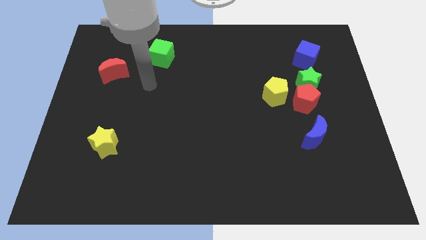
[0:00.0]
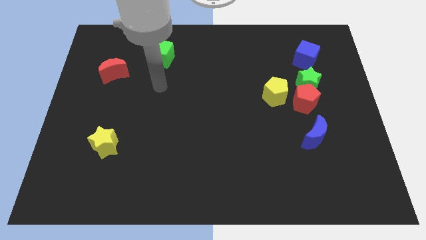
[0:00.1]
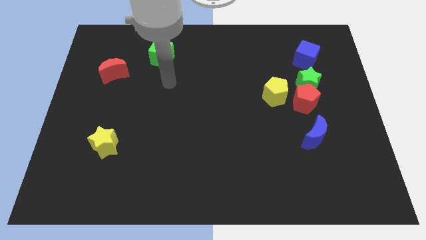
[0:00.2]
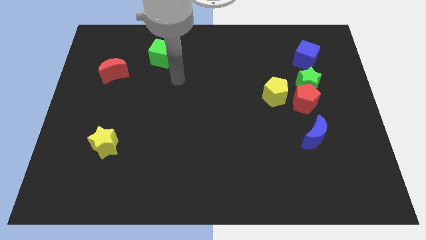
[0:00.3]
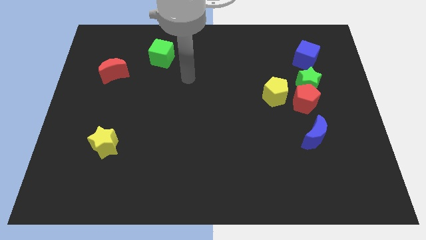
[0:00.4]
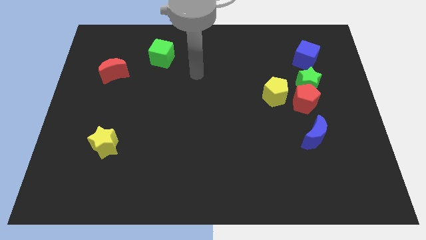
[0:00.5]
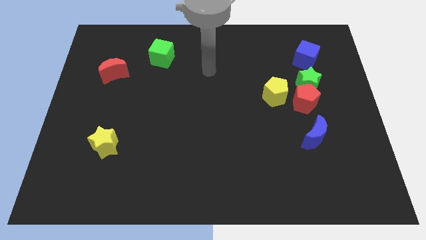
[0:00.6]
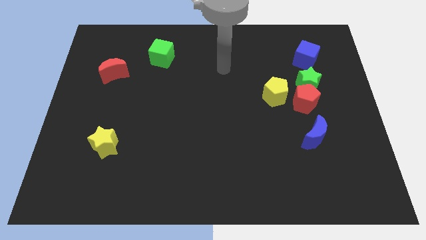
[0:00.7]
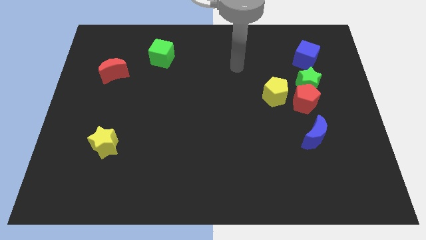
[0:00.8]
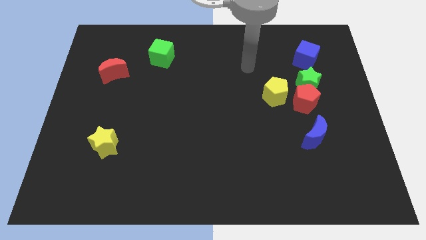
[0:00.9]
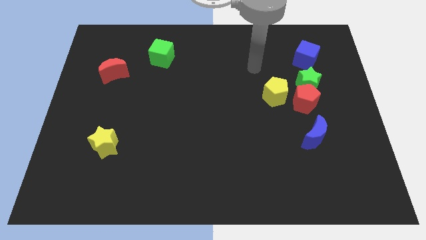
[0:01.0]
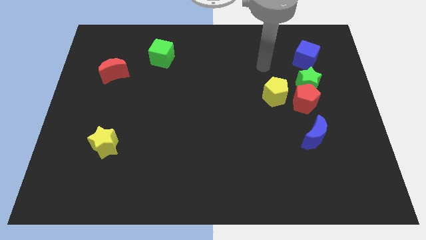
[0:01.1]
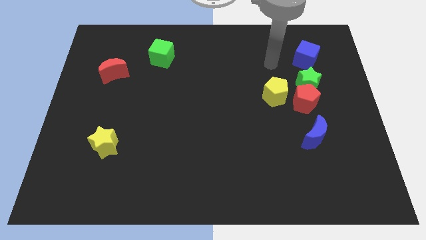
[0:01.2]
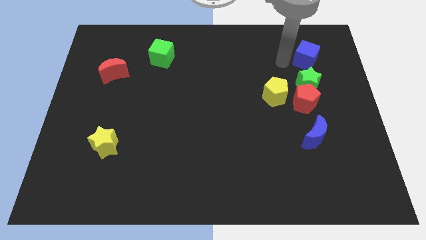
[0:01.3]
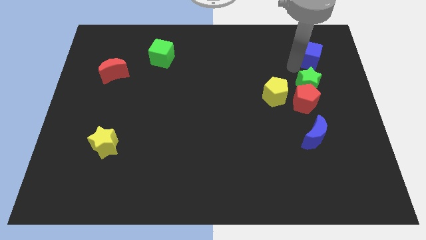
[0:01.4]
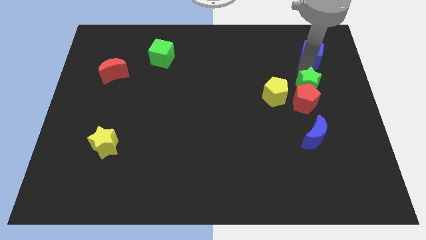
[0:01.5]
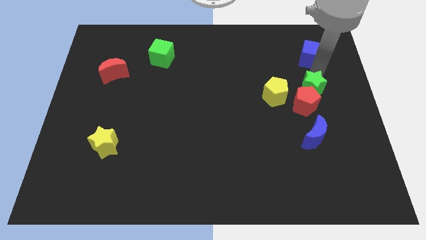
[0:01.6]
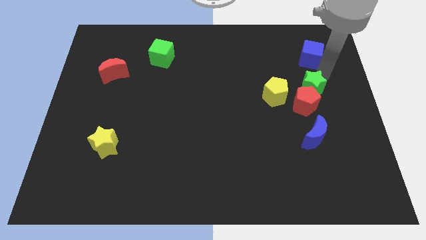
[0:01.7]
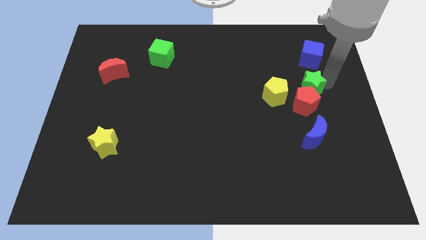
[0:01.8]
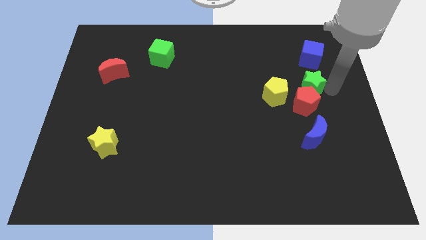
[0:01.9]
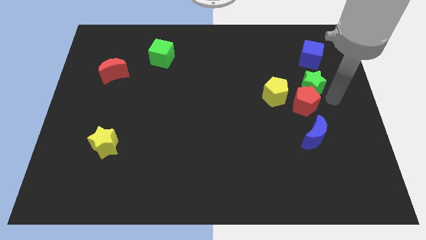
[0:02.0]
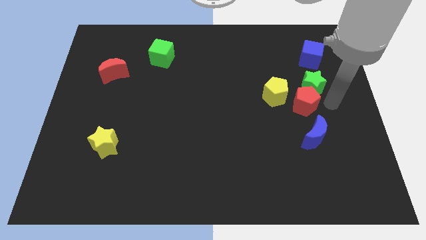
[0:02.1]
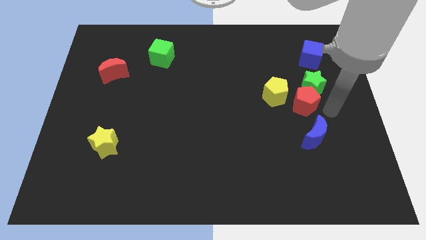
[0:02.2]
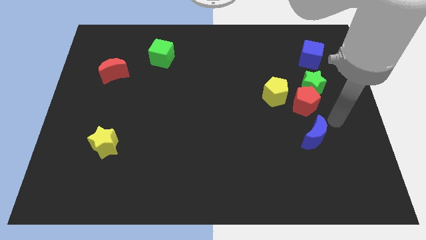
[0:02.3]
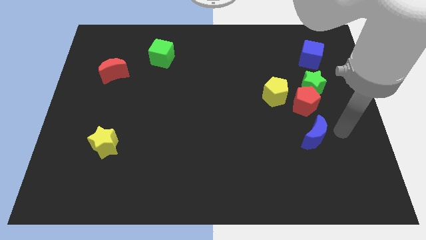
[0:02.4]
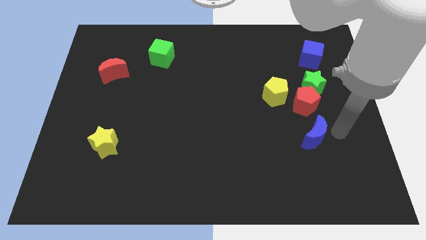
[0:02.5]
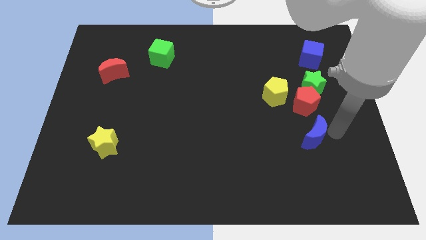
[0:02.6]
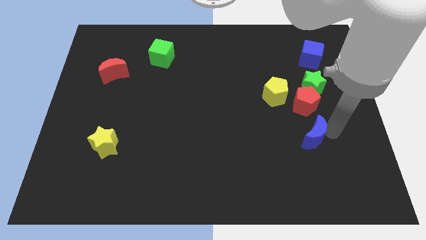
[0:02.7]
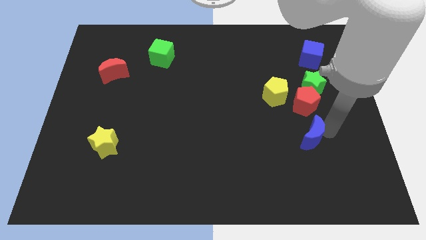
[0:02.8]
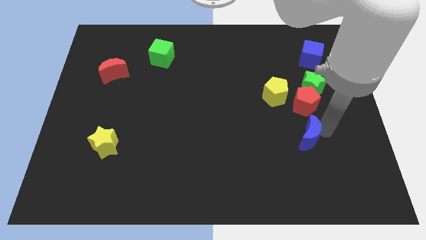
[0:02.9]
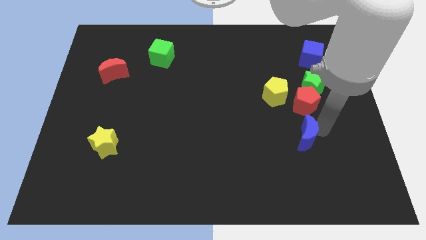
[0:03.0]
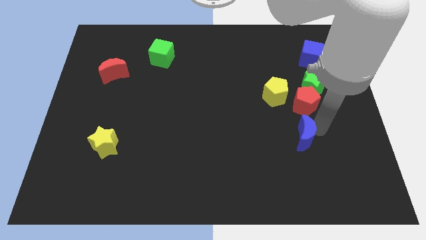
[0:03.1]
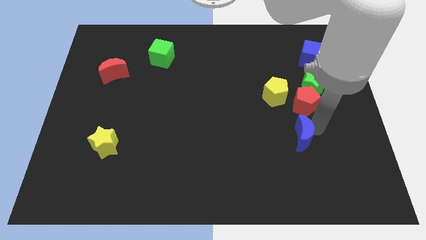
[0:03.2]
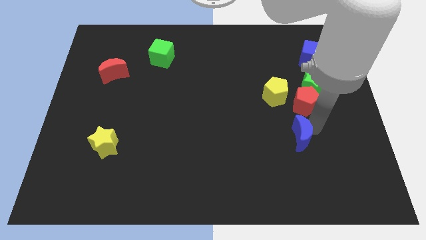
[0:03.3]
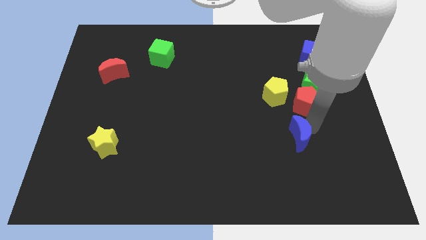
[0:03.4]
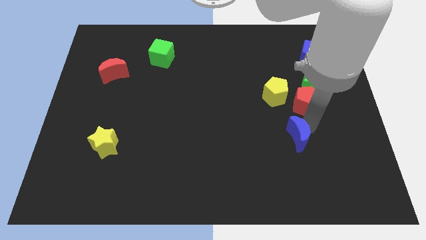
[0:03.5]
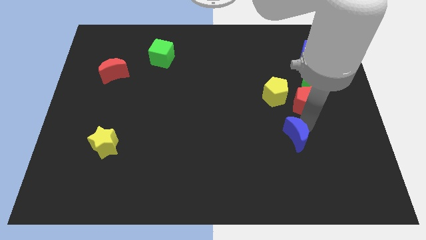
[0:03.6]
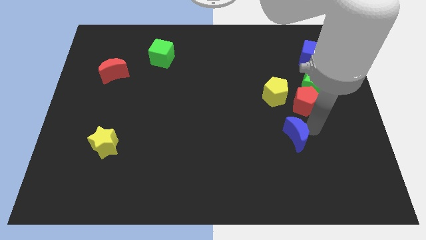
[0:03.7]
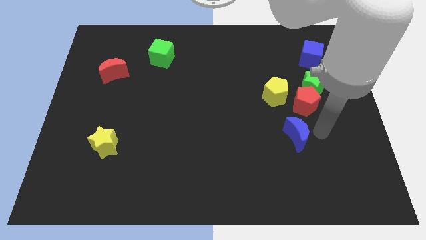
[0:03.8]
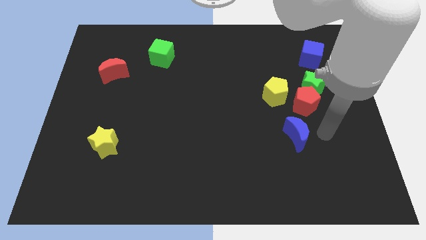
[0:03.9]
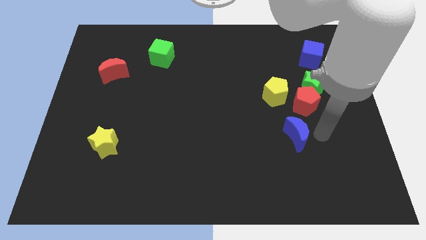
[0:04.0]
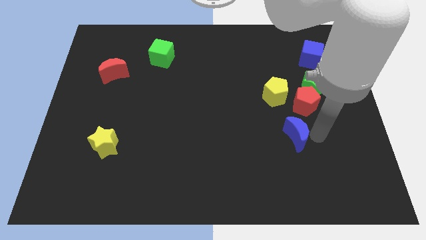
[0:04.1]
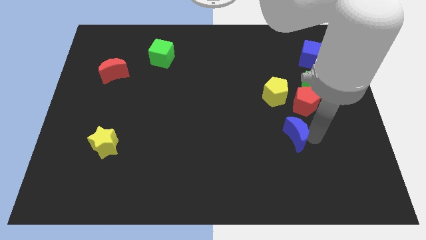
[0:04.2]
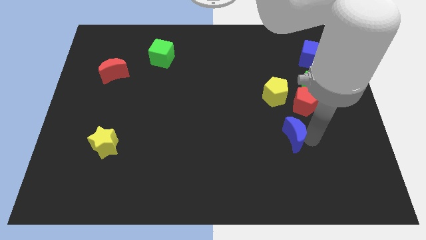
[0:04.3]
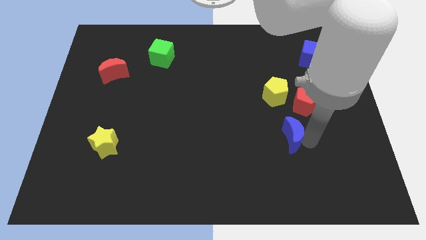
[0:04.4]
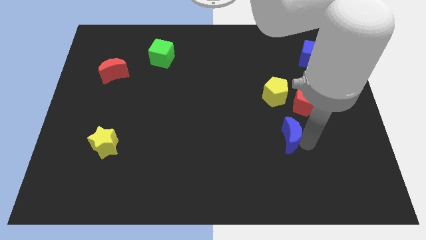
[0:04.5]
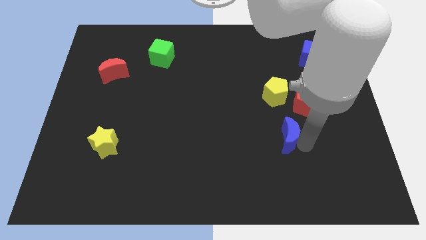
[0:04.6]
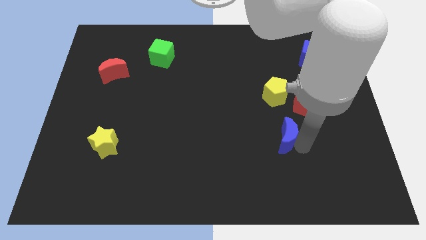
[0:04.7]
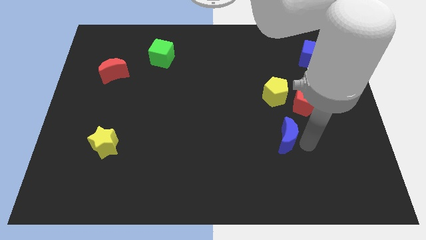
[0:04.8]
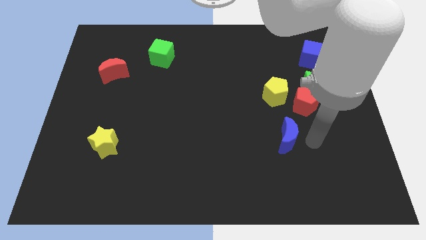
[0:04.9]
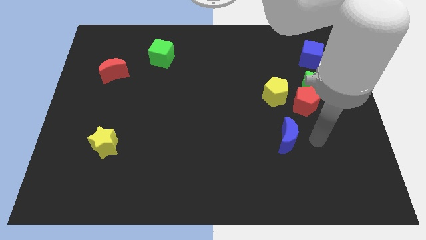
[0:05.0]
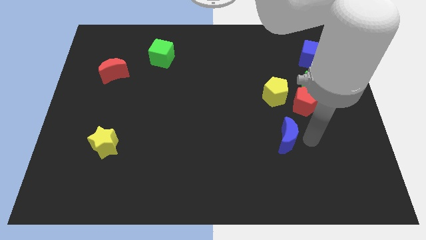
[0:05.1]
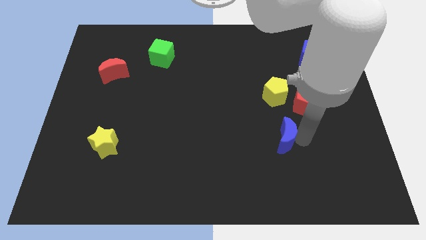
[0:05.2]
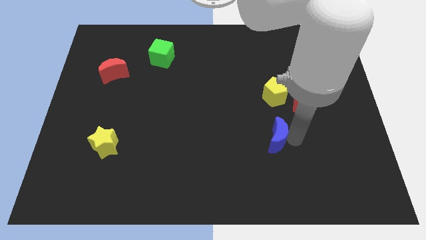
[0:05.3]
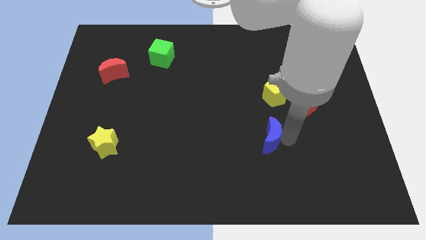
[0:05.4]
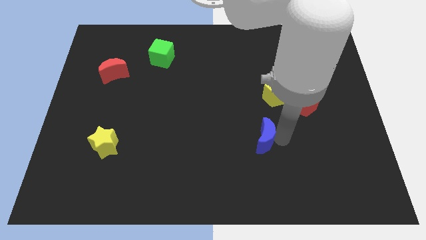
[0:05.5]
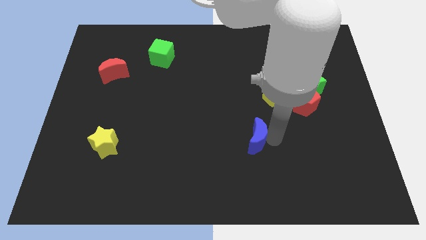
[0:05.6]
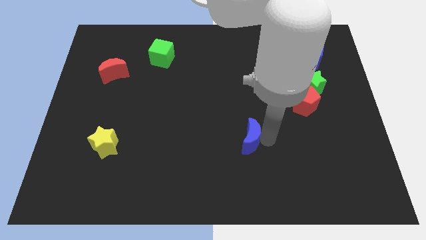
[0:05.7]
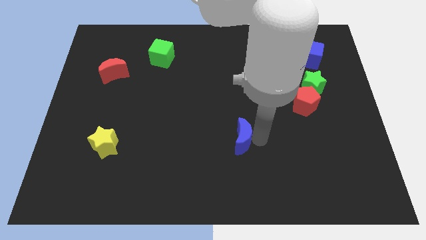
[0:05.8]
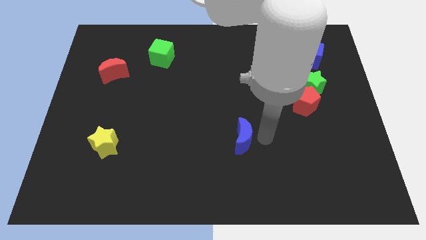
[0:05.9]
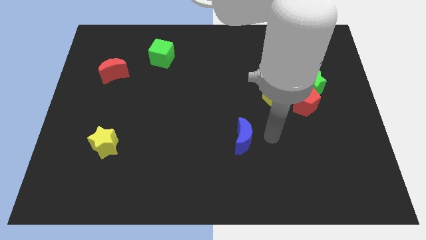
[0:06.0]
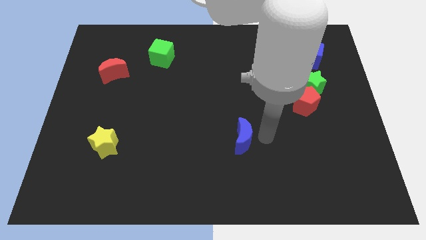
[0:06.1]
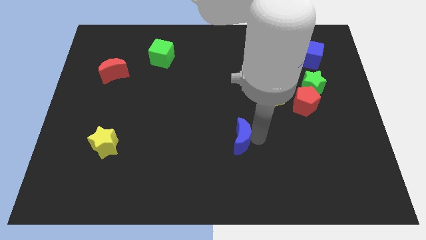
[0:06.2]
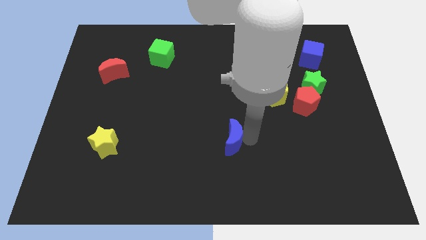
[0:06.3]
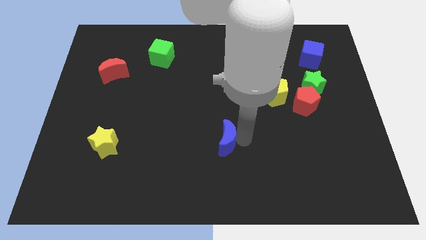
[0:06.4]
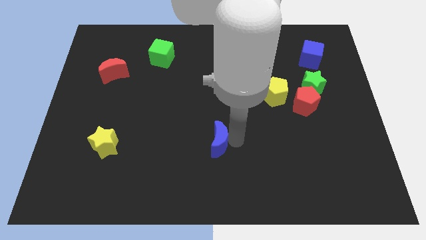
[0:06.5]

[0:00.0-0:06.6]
push the blue moon to the left

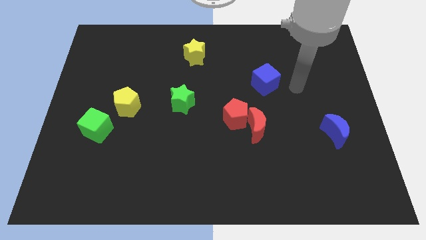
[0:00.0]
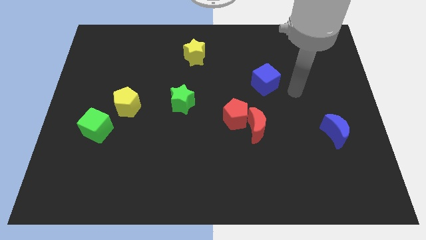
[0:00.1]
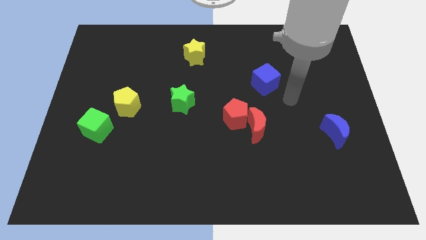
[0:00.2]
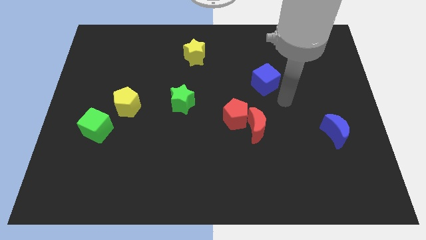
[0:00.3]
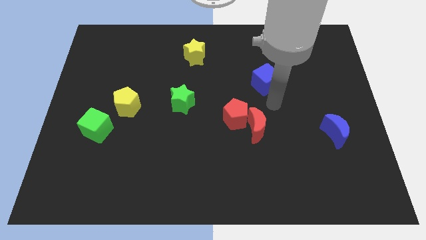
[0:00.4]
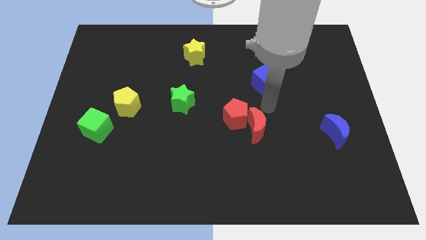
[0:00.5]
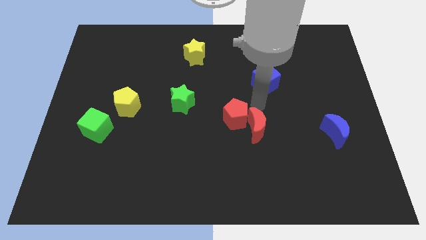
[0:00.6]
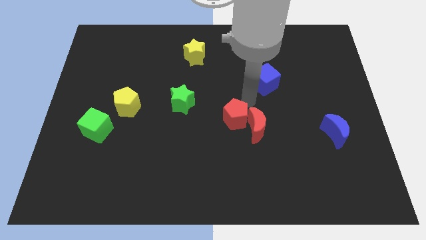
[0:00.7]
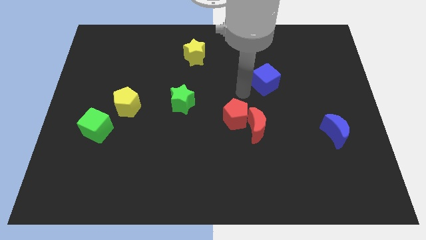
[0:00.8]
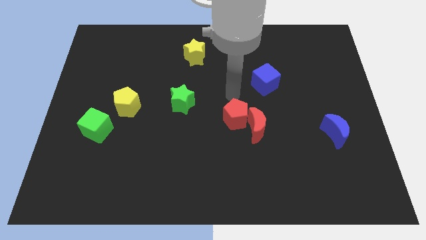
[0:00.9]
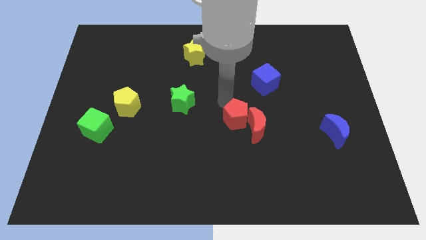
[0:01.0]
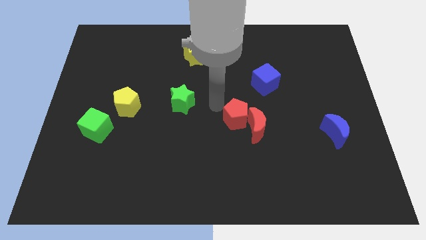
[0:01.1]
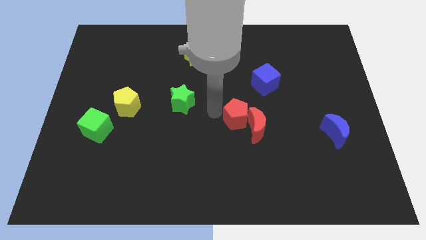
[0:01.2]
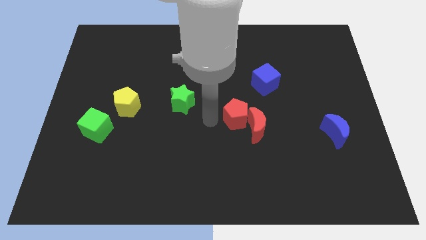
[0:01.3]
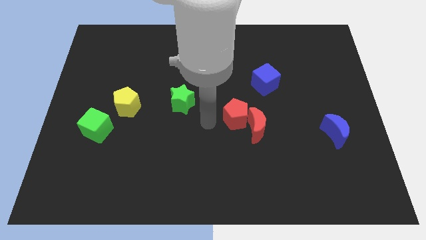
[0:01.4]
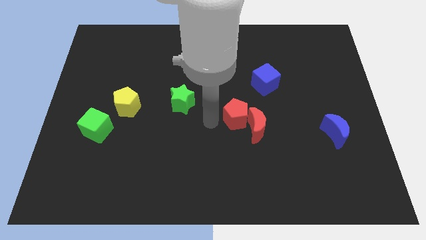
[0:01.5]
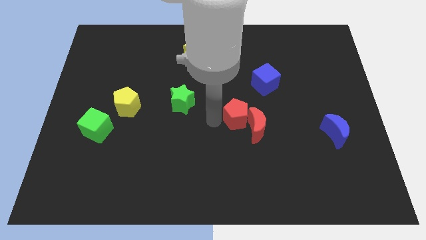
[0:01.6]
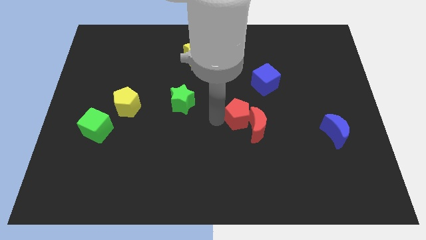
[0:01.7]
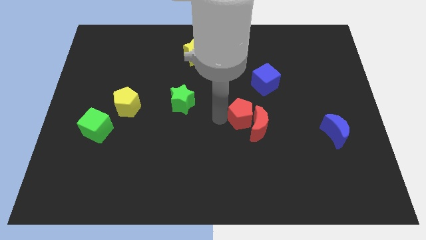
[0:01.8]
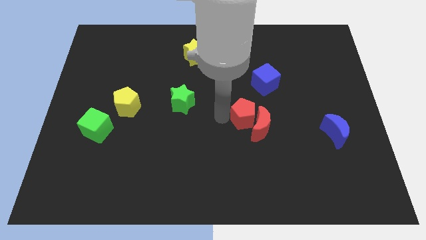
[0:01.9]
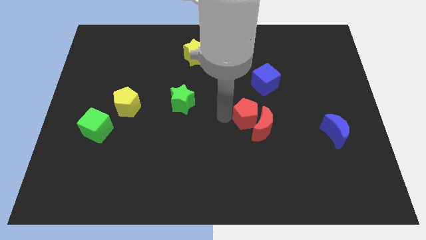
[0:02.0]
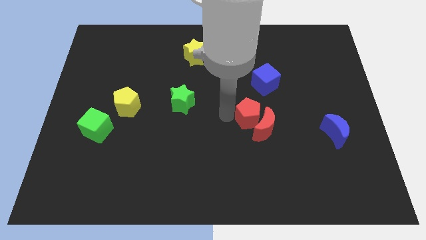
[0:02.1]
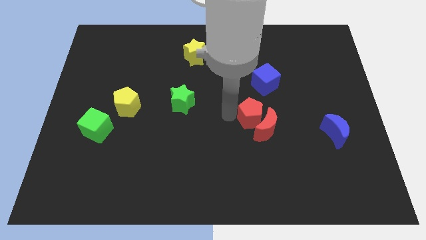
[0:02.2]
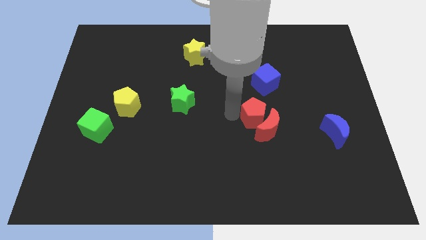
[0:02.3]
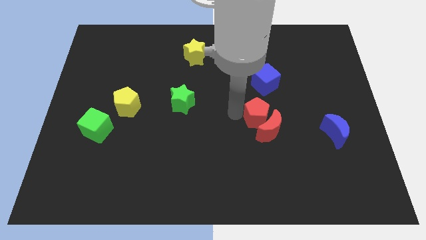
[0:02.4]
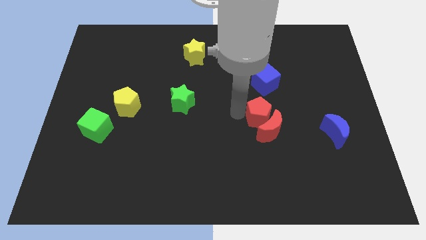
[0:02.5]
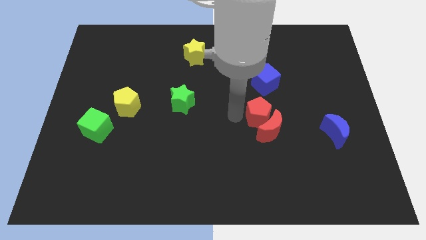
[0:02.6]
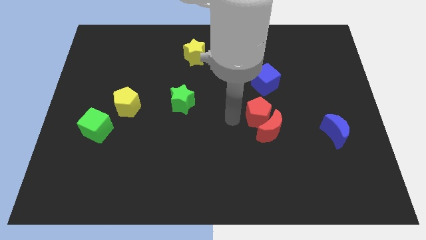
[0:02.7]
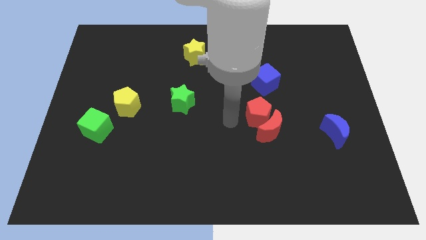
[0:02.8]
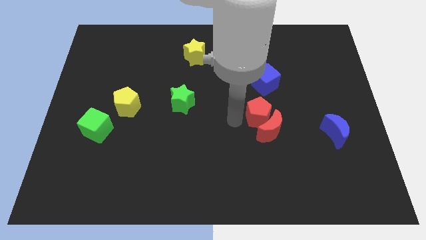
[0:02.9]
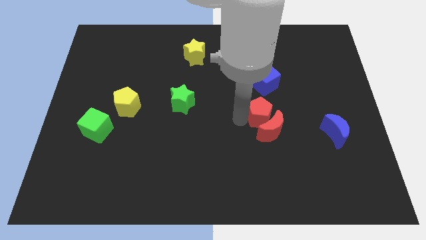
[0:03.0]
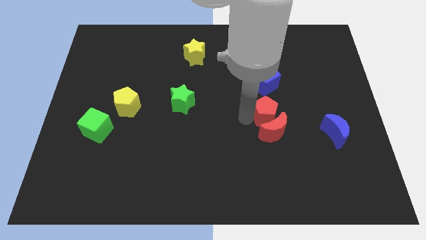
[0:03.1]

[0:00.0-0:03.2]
move the red pentagon a little to the right
